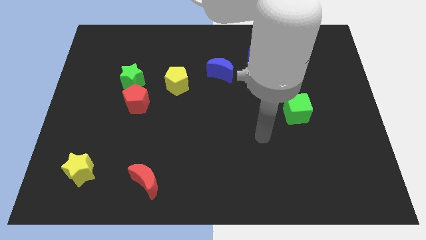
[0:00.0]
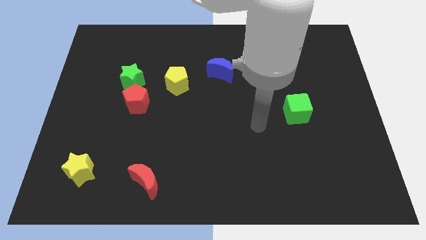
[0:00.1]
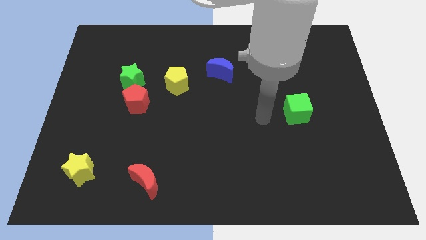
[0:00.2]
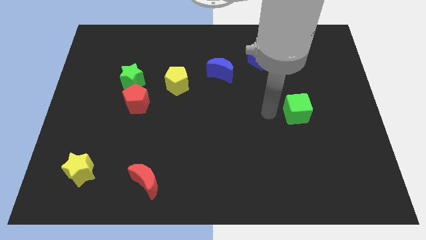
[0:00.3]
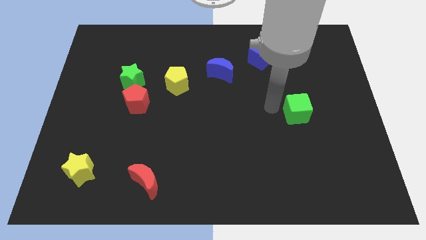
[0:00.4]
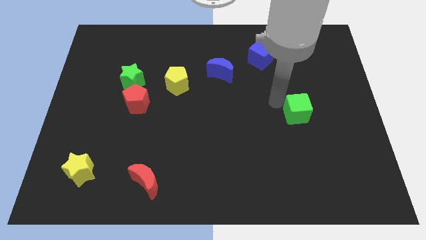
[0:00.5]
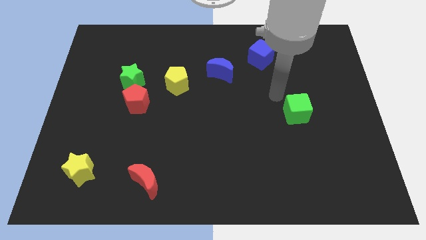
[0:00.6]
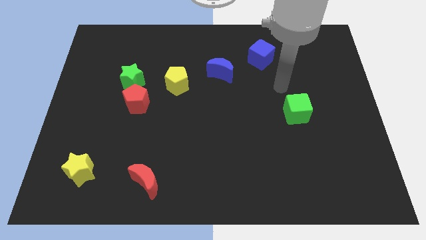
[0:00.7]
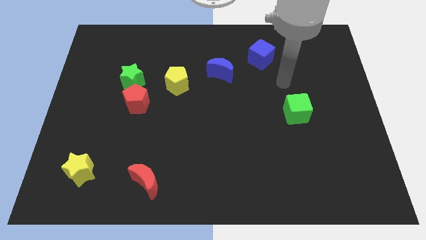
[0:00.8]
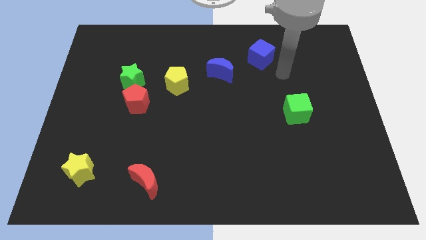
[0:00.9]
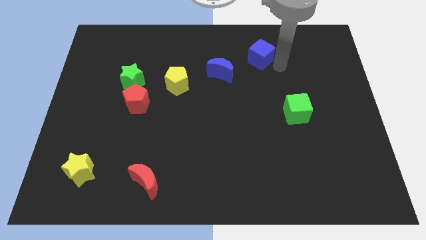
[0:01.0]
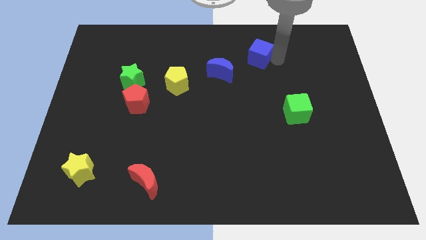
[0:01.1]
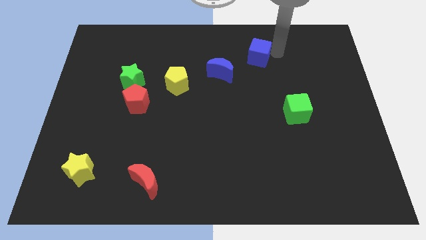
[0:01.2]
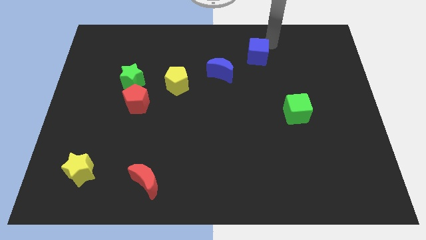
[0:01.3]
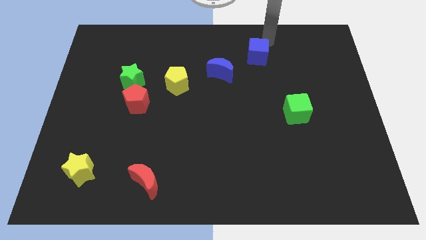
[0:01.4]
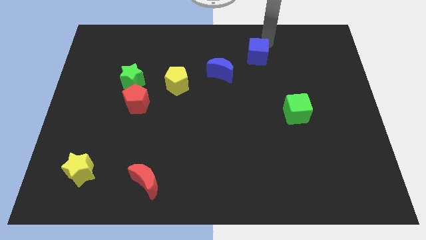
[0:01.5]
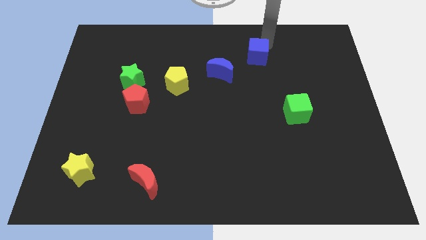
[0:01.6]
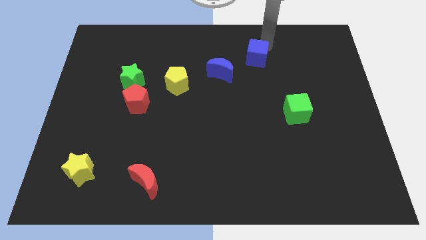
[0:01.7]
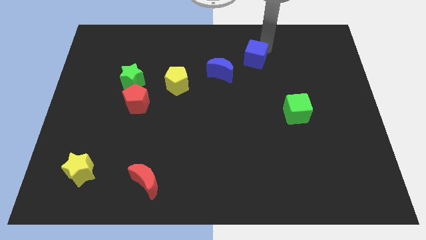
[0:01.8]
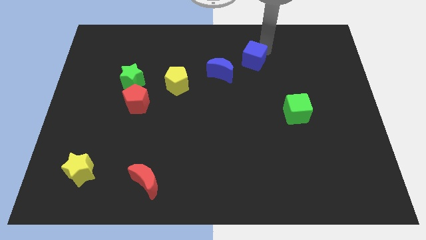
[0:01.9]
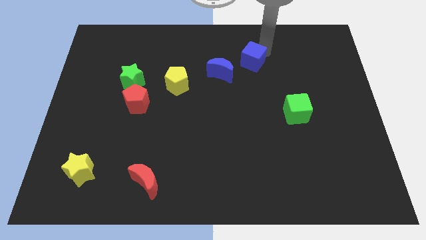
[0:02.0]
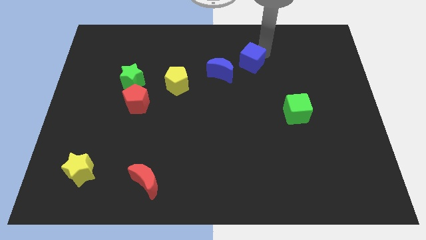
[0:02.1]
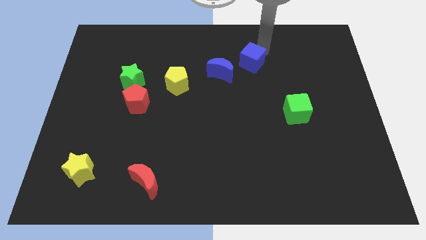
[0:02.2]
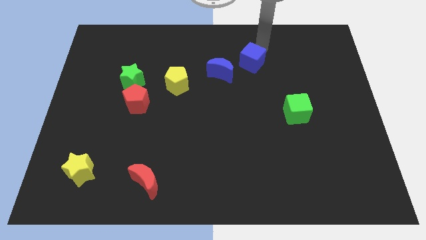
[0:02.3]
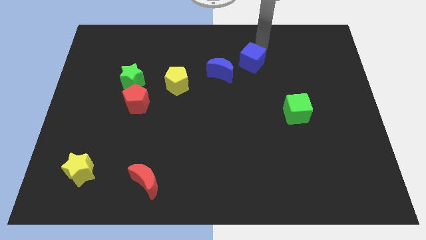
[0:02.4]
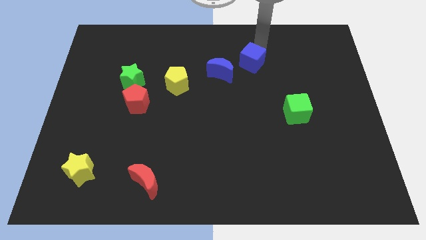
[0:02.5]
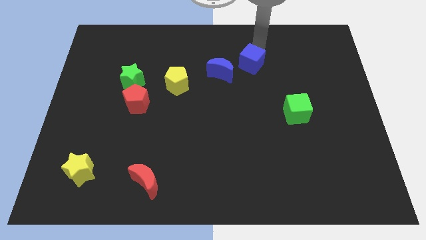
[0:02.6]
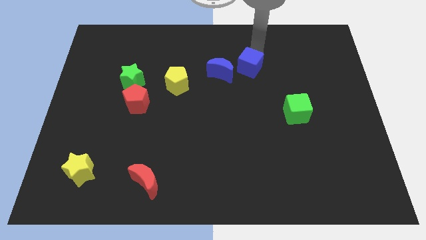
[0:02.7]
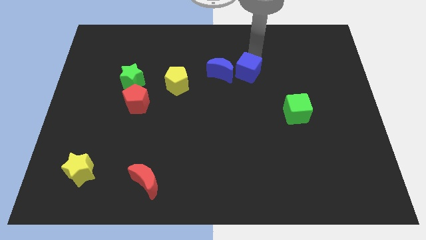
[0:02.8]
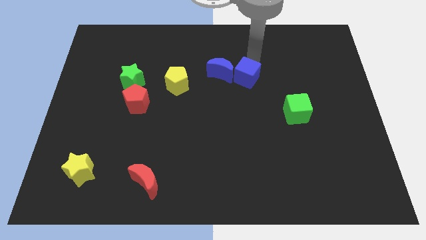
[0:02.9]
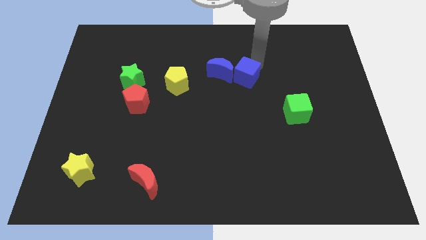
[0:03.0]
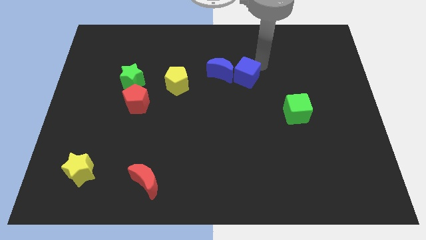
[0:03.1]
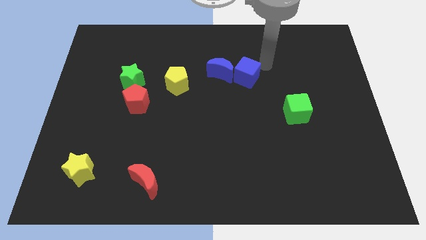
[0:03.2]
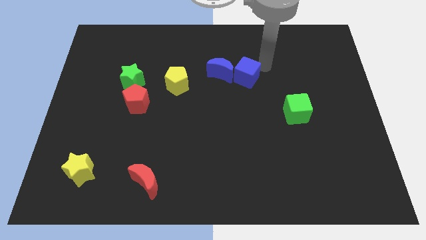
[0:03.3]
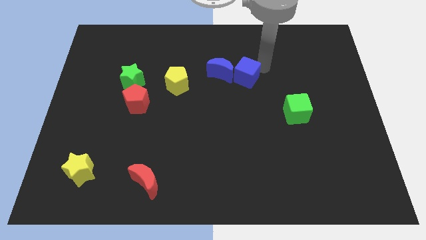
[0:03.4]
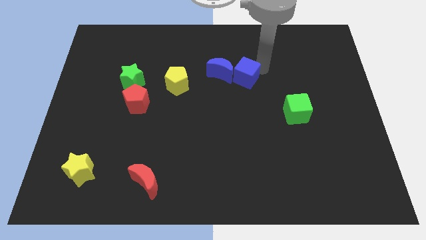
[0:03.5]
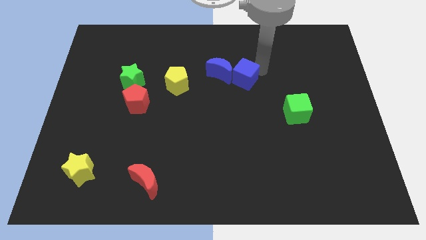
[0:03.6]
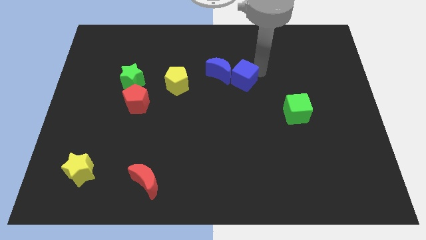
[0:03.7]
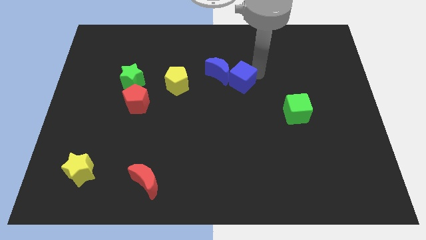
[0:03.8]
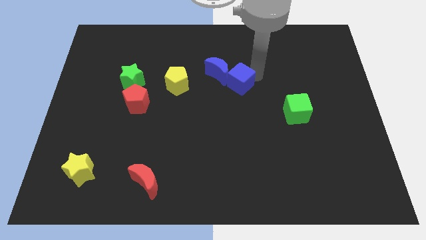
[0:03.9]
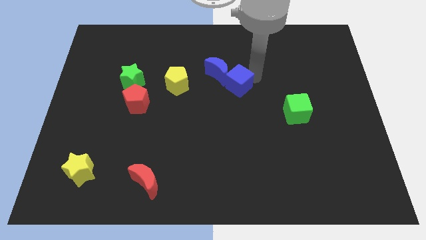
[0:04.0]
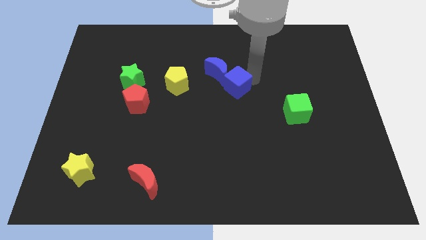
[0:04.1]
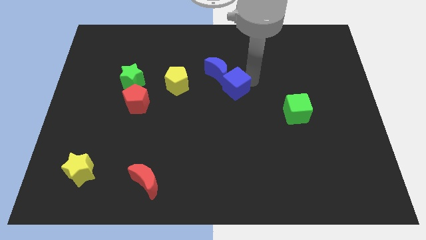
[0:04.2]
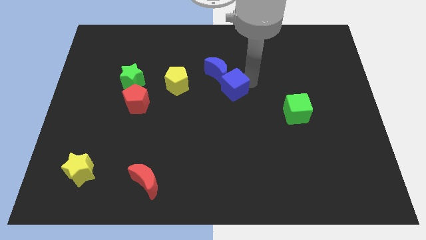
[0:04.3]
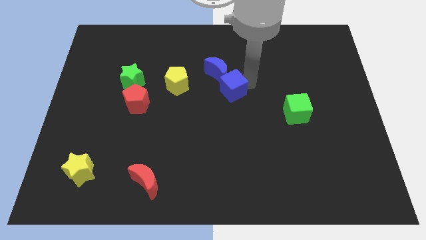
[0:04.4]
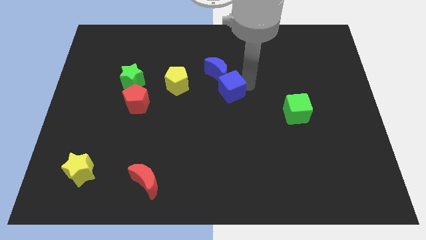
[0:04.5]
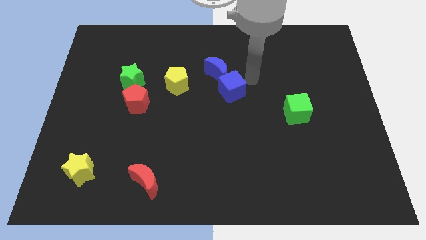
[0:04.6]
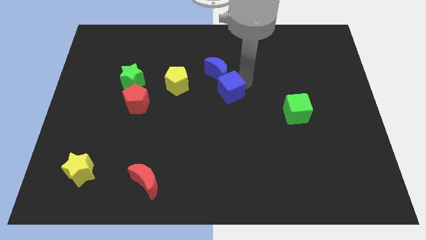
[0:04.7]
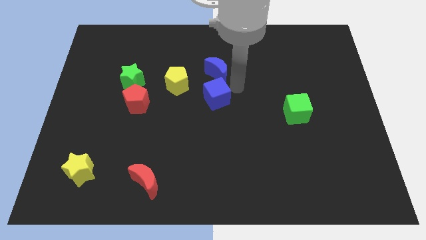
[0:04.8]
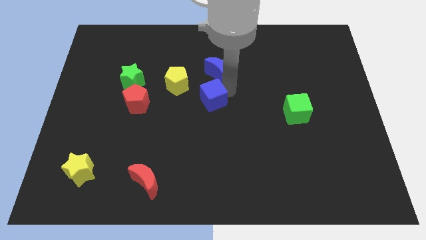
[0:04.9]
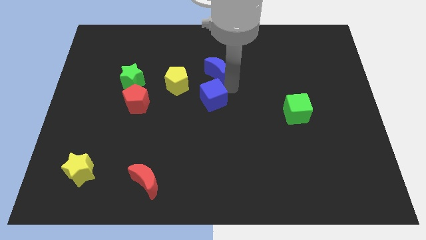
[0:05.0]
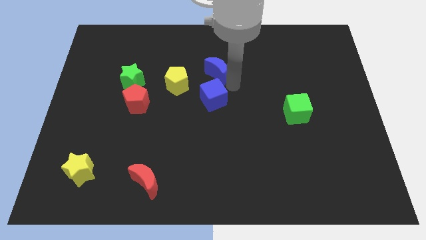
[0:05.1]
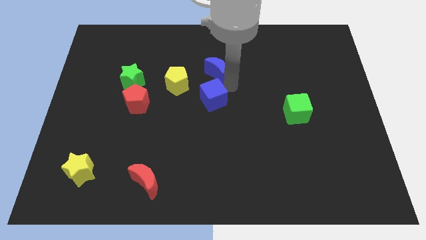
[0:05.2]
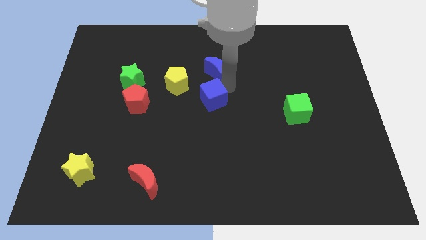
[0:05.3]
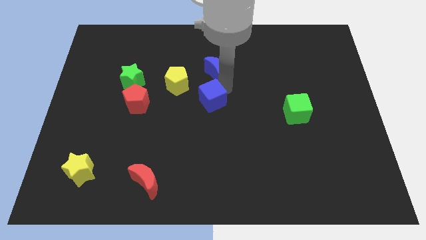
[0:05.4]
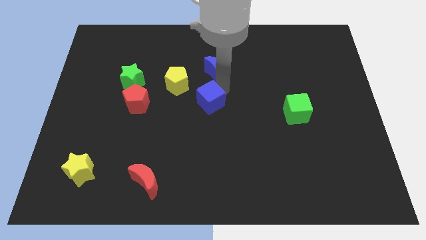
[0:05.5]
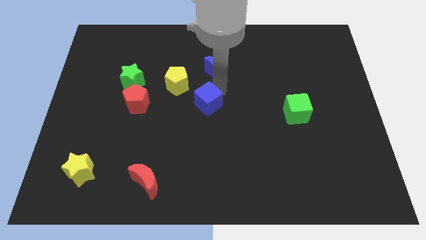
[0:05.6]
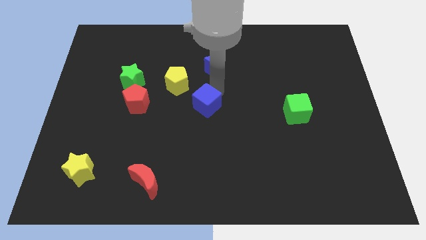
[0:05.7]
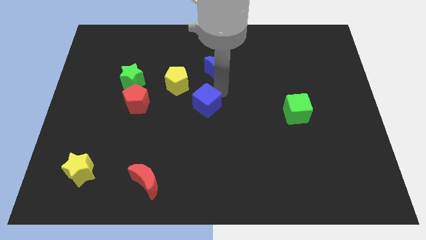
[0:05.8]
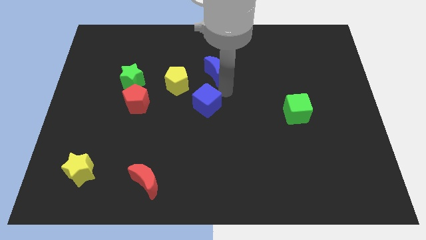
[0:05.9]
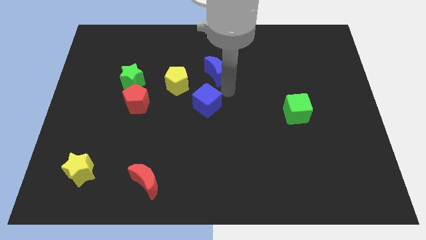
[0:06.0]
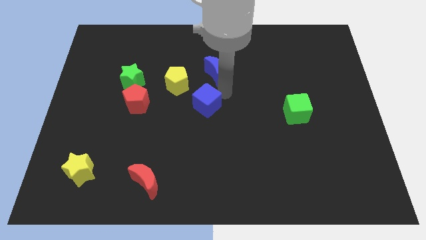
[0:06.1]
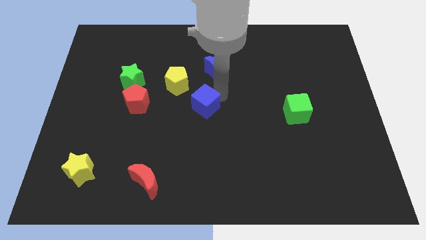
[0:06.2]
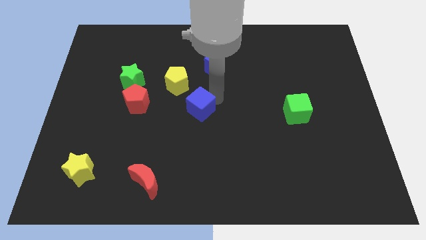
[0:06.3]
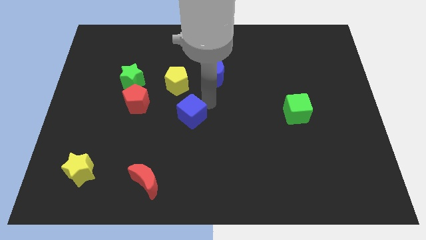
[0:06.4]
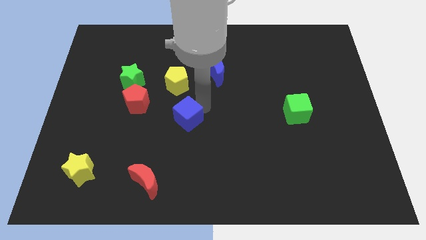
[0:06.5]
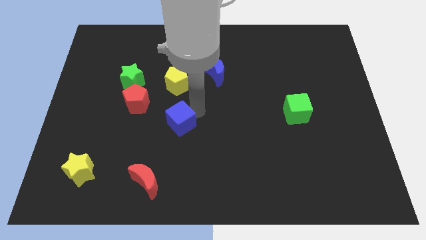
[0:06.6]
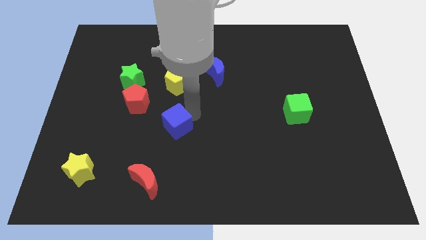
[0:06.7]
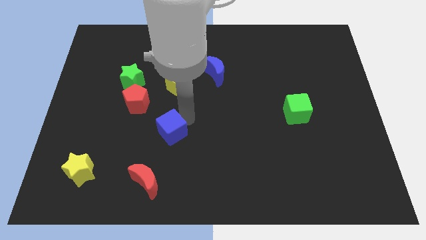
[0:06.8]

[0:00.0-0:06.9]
push the blue cube to the top side of the red moon
